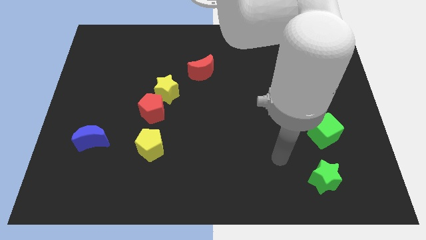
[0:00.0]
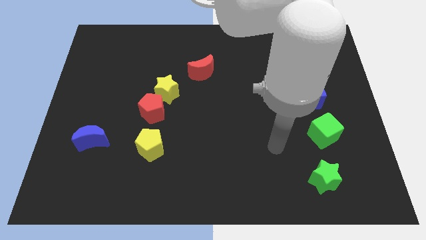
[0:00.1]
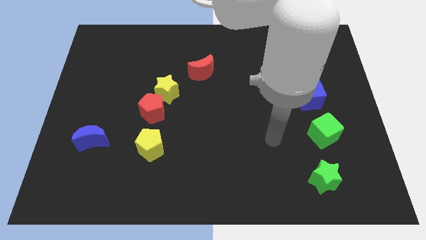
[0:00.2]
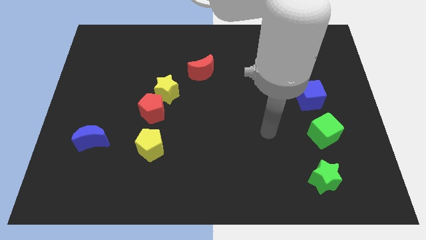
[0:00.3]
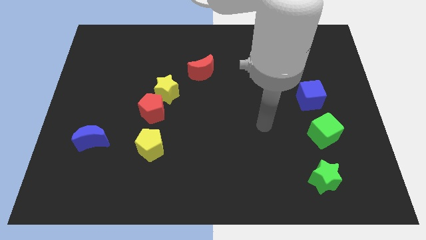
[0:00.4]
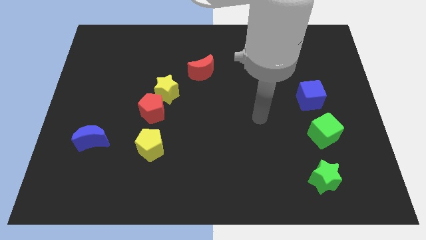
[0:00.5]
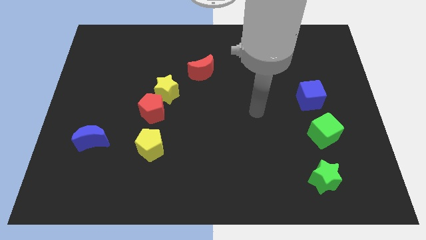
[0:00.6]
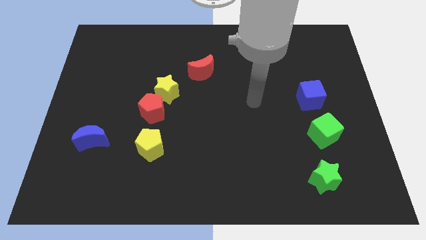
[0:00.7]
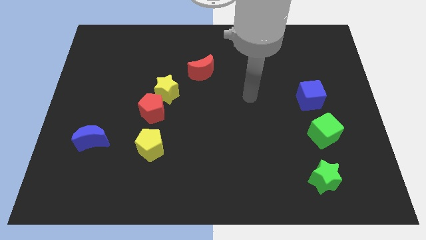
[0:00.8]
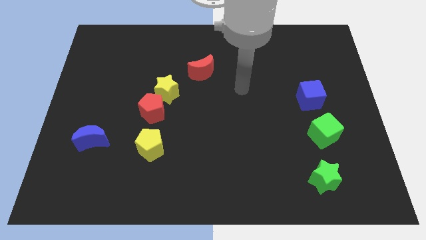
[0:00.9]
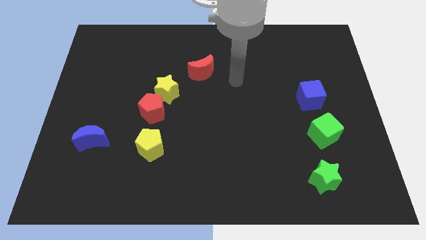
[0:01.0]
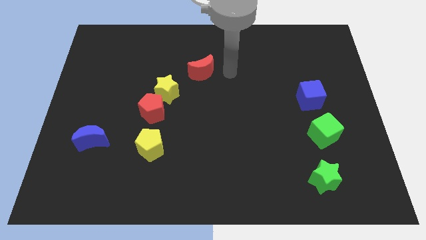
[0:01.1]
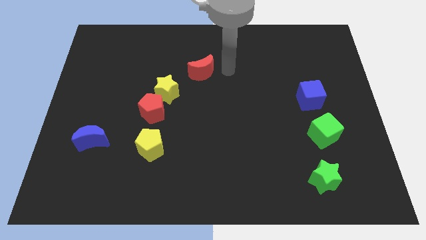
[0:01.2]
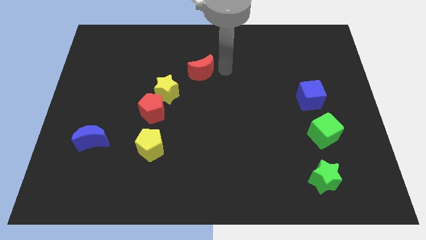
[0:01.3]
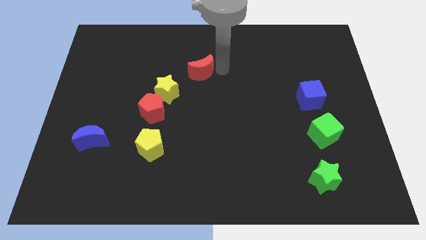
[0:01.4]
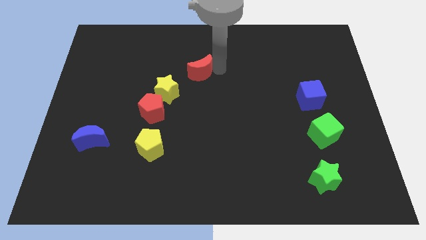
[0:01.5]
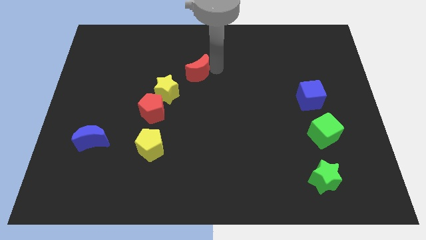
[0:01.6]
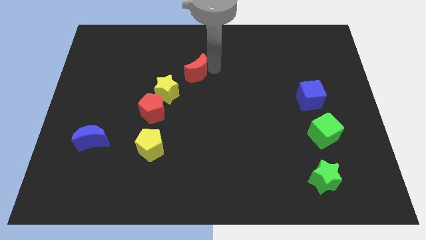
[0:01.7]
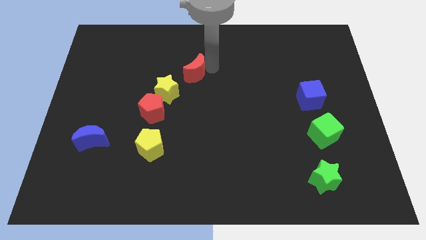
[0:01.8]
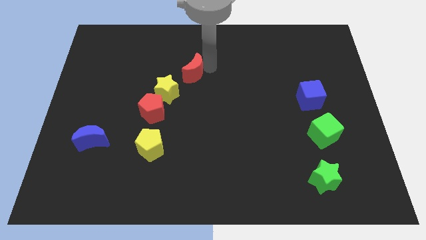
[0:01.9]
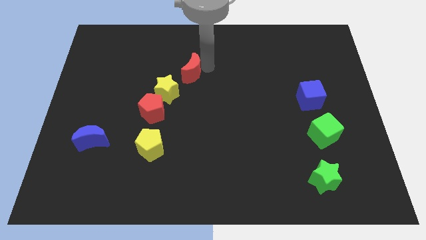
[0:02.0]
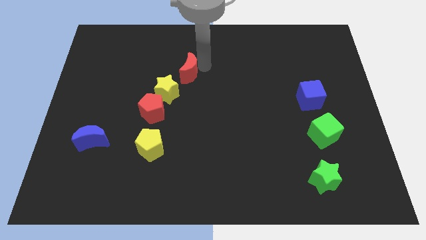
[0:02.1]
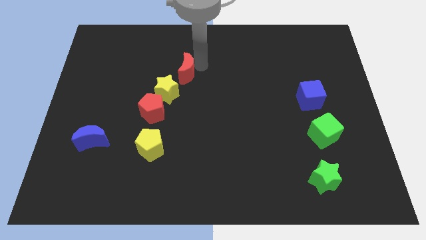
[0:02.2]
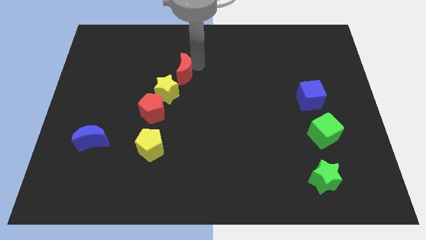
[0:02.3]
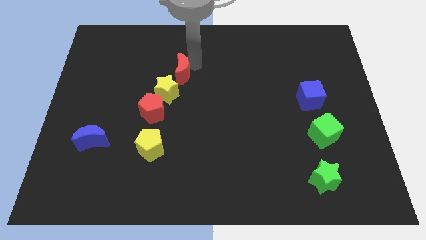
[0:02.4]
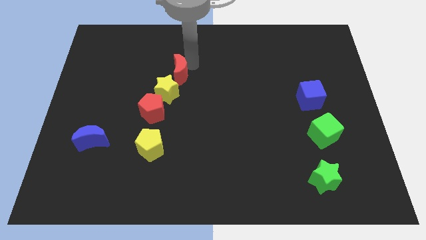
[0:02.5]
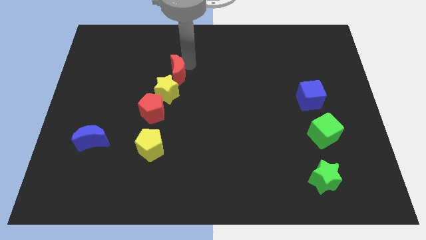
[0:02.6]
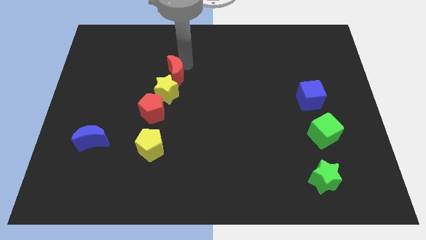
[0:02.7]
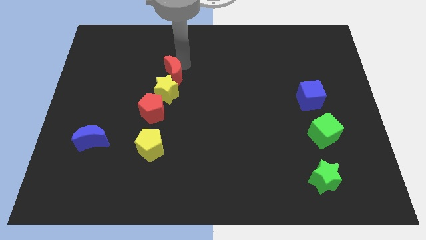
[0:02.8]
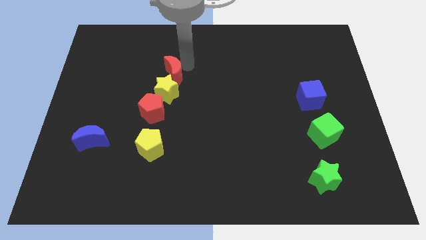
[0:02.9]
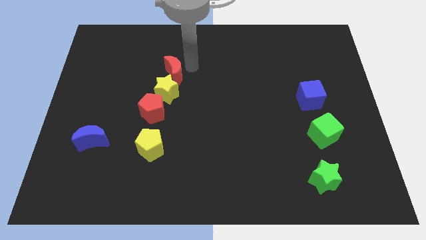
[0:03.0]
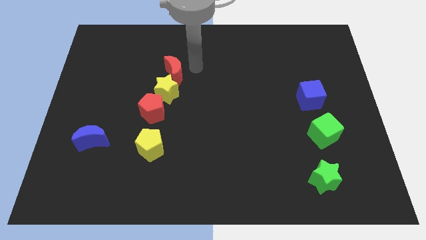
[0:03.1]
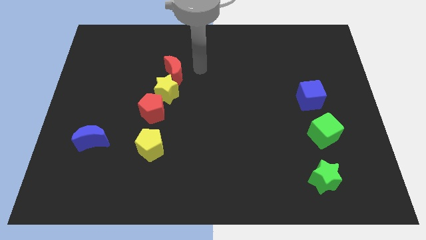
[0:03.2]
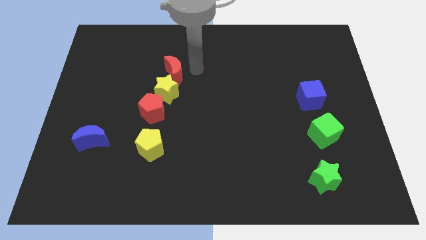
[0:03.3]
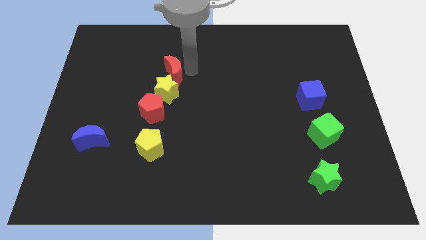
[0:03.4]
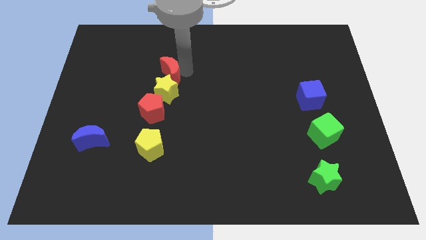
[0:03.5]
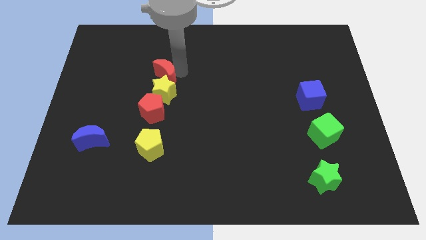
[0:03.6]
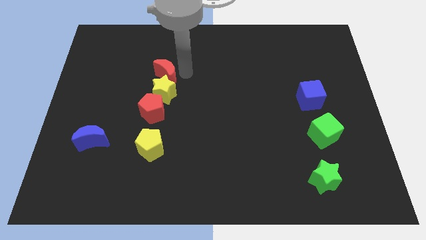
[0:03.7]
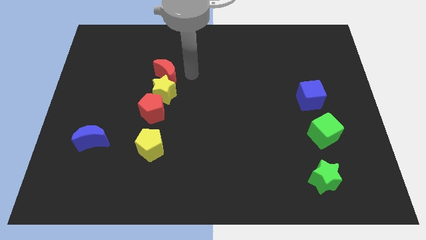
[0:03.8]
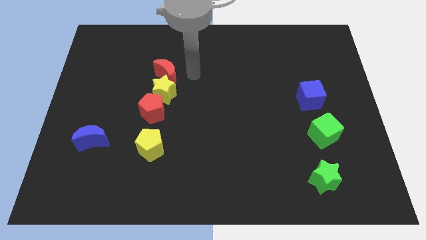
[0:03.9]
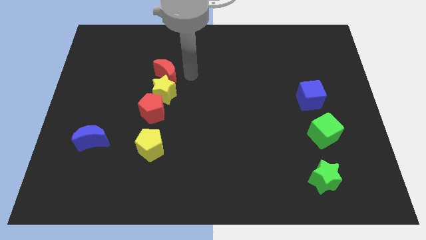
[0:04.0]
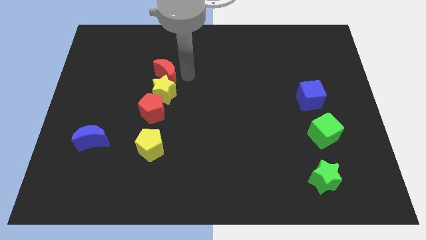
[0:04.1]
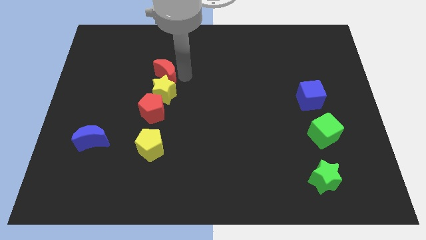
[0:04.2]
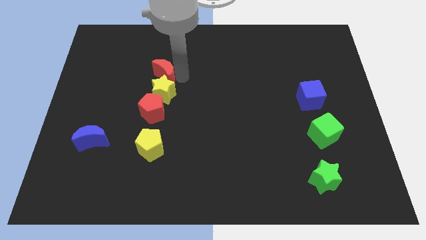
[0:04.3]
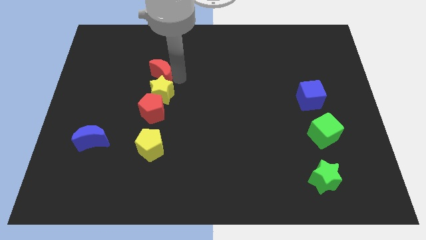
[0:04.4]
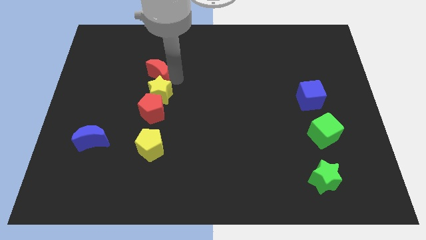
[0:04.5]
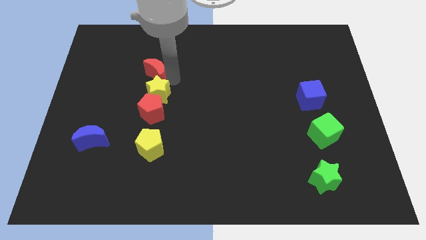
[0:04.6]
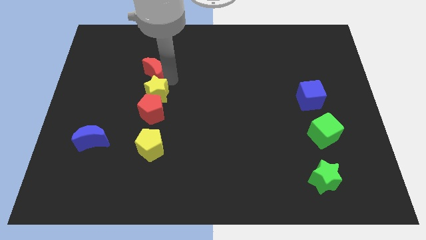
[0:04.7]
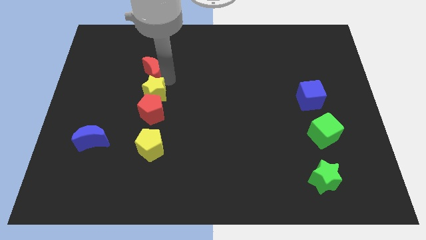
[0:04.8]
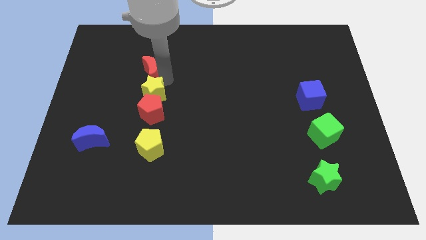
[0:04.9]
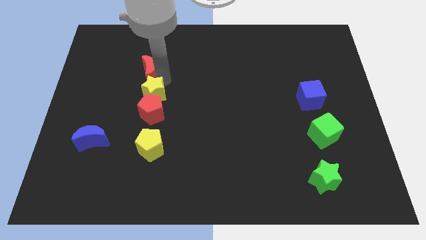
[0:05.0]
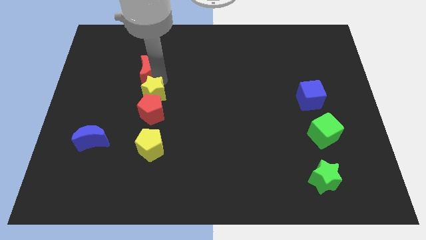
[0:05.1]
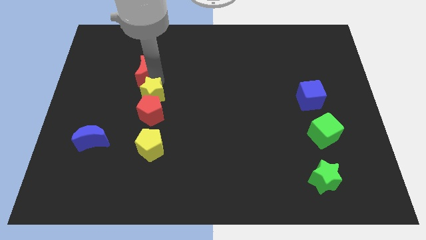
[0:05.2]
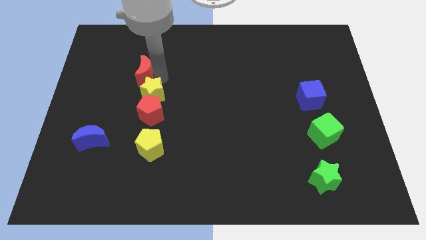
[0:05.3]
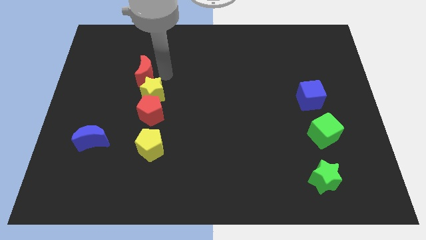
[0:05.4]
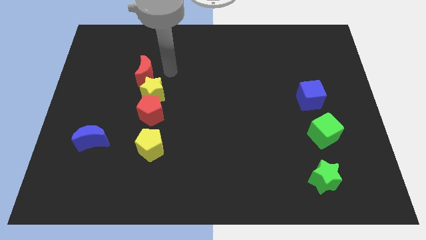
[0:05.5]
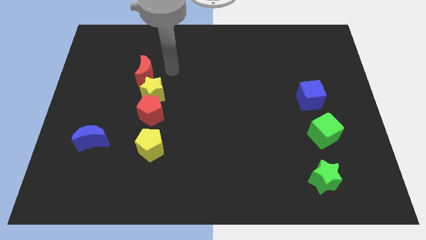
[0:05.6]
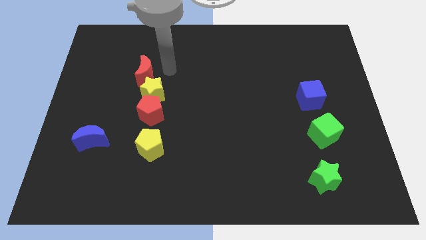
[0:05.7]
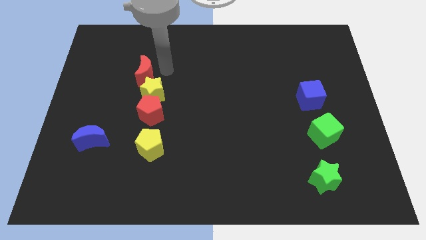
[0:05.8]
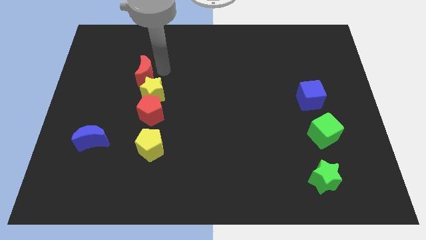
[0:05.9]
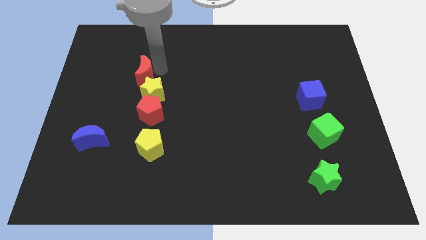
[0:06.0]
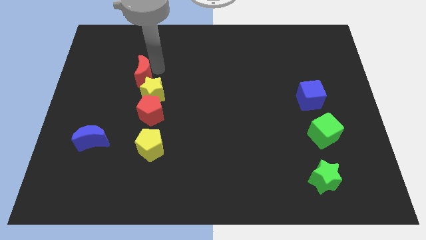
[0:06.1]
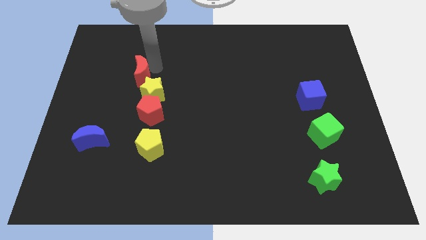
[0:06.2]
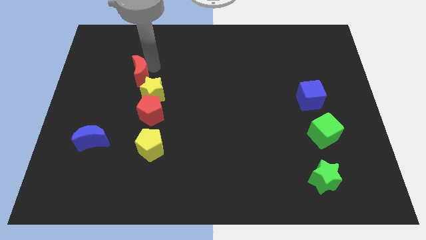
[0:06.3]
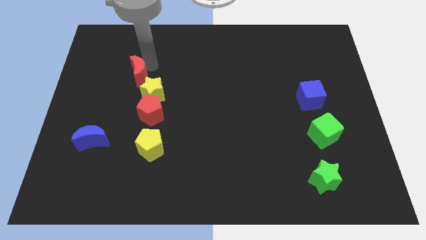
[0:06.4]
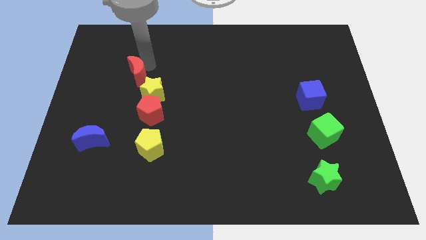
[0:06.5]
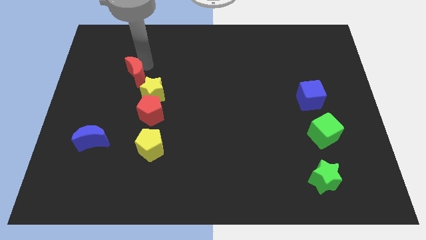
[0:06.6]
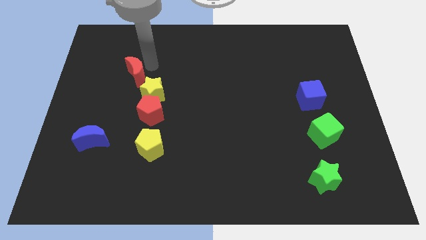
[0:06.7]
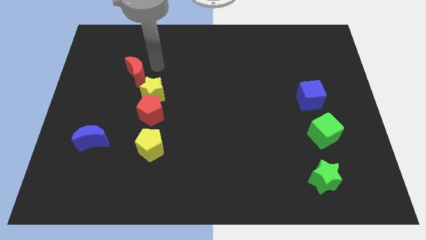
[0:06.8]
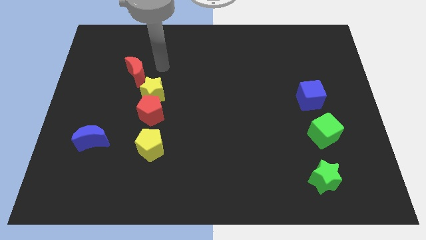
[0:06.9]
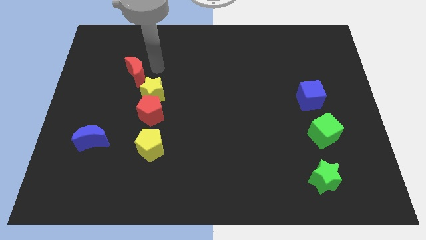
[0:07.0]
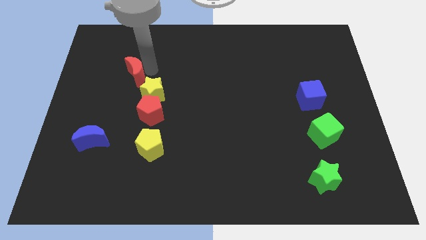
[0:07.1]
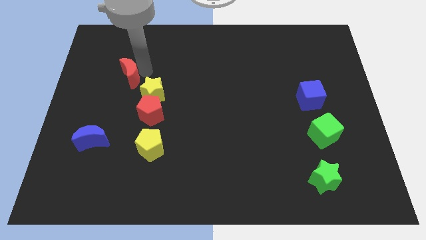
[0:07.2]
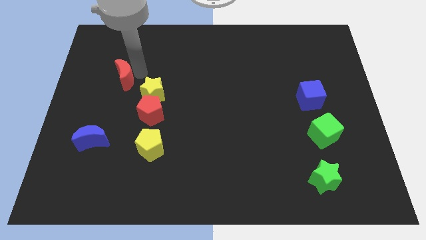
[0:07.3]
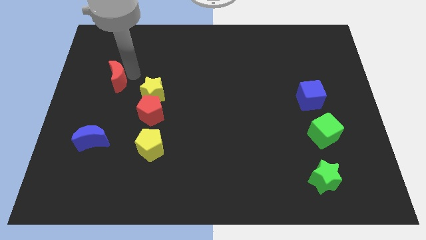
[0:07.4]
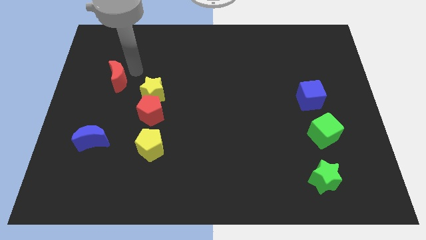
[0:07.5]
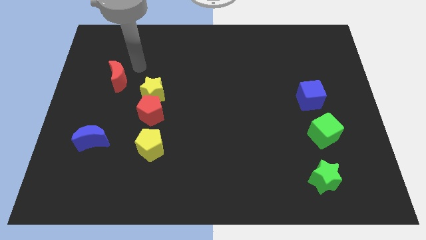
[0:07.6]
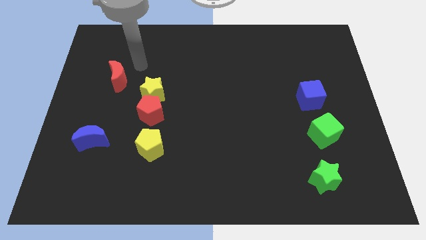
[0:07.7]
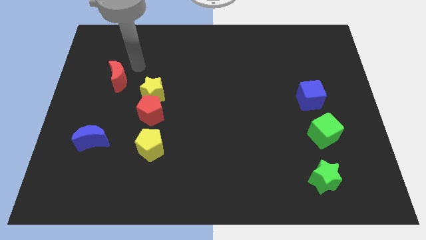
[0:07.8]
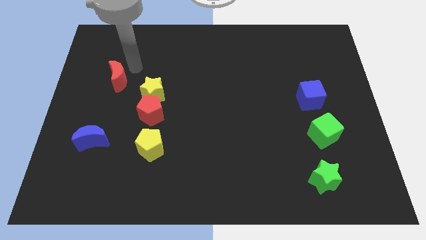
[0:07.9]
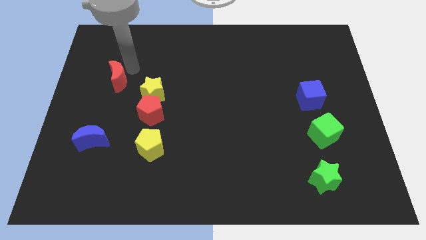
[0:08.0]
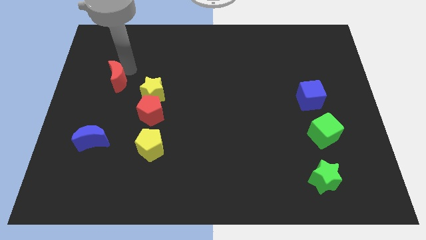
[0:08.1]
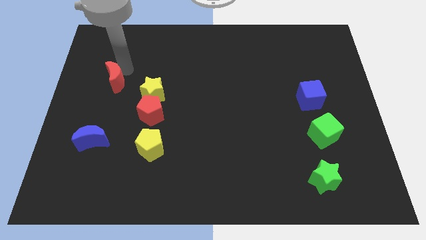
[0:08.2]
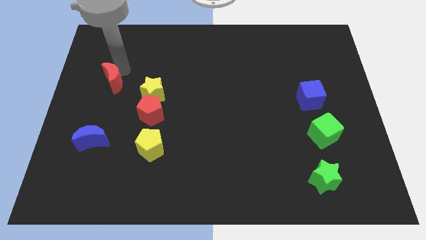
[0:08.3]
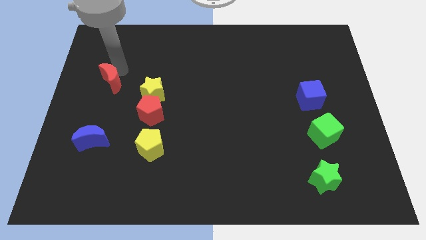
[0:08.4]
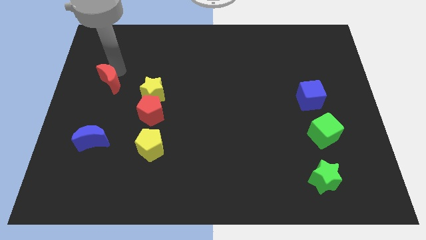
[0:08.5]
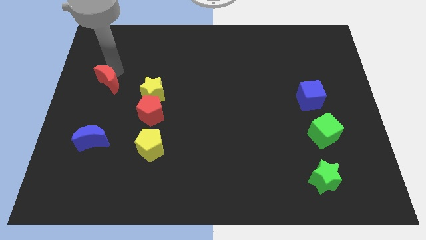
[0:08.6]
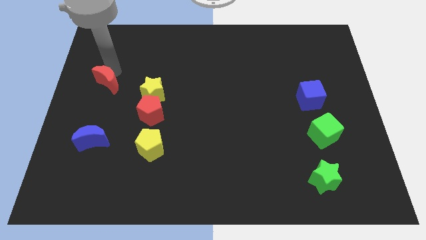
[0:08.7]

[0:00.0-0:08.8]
put the red moon to the center left
